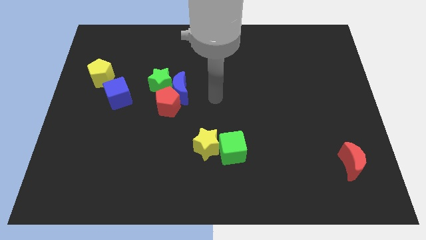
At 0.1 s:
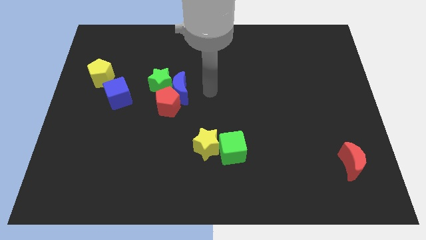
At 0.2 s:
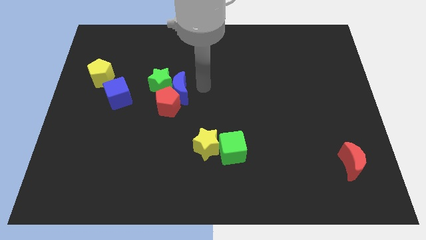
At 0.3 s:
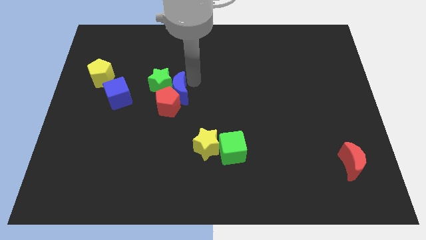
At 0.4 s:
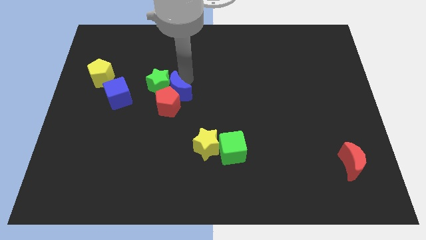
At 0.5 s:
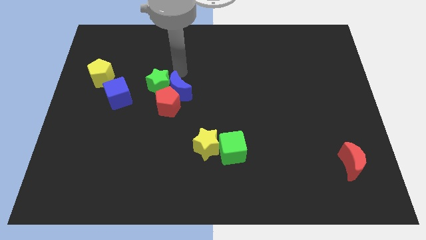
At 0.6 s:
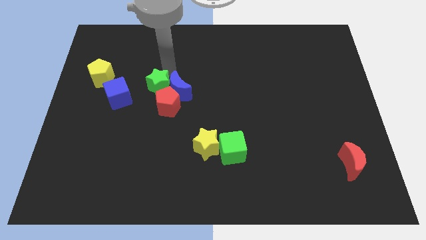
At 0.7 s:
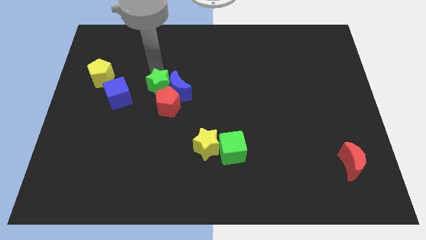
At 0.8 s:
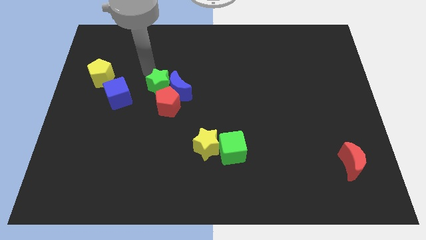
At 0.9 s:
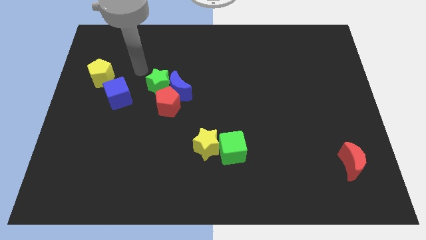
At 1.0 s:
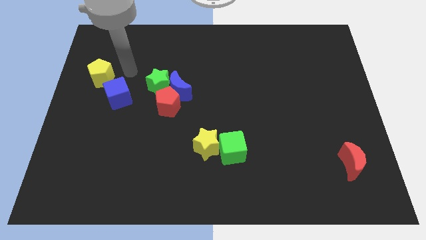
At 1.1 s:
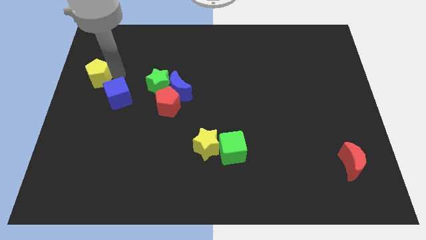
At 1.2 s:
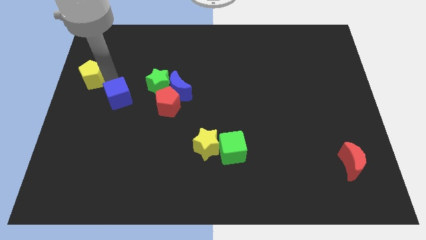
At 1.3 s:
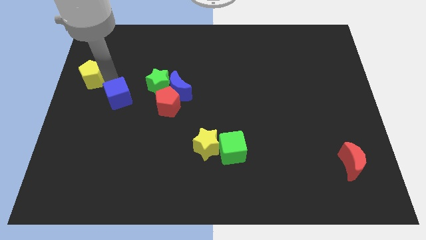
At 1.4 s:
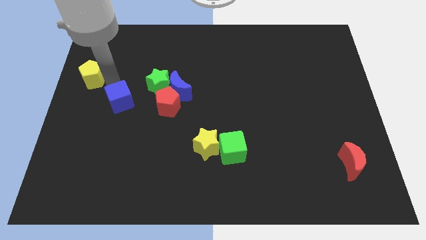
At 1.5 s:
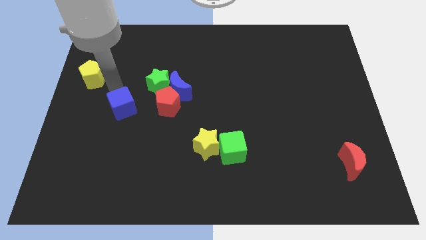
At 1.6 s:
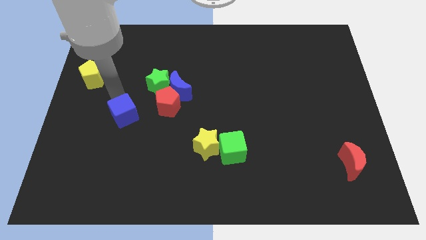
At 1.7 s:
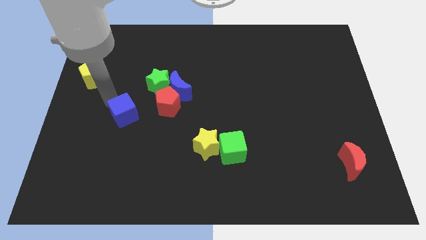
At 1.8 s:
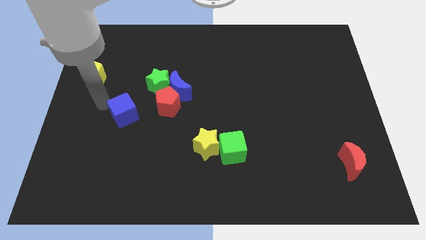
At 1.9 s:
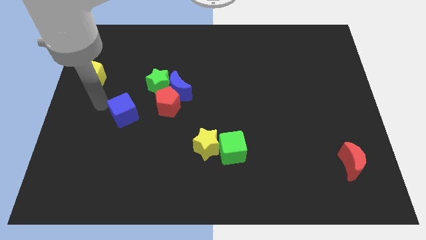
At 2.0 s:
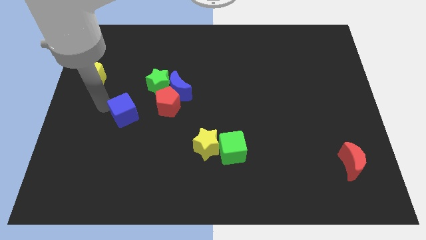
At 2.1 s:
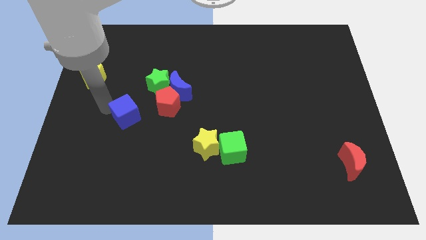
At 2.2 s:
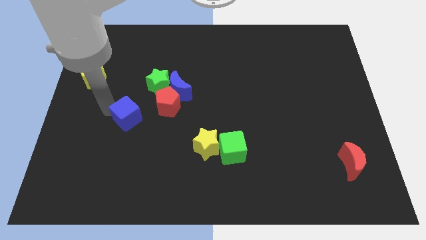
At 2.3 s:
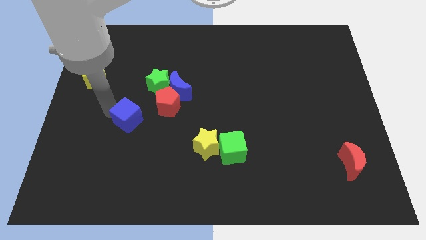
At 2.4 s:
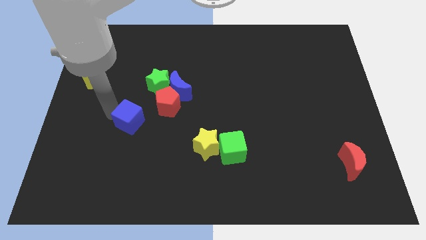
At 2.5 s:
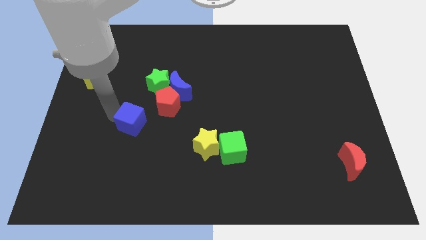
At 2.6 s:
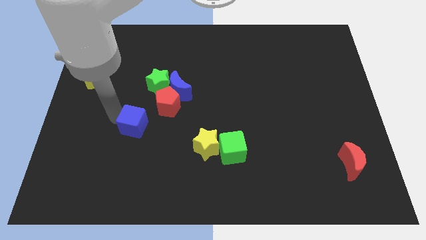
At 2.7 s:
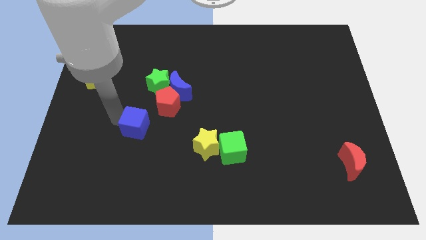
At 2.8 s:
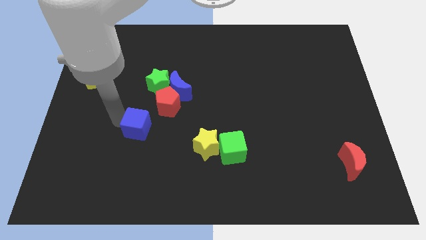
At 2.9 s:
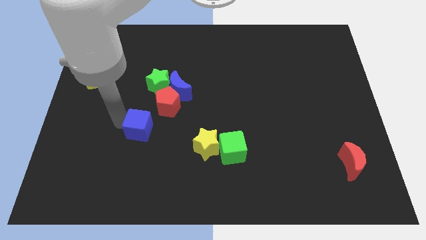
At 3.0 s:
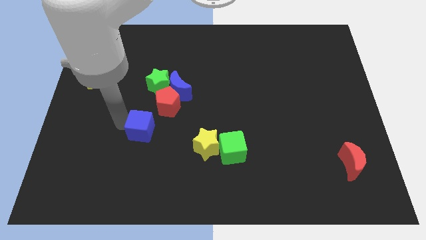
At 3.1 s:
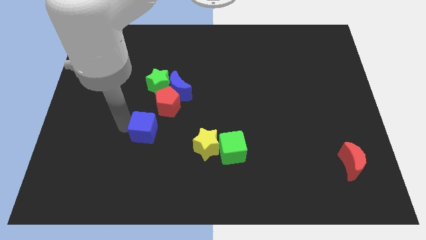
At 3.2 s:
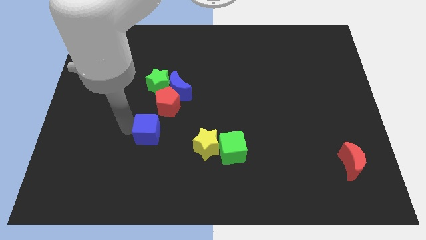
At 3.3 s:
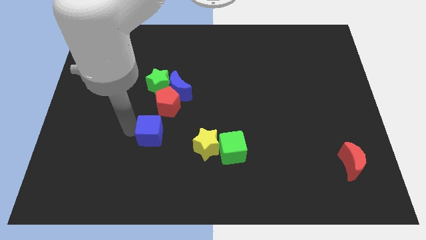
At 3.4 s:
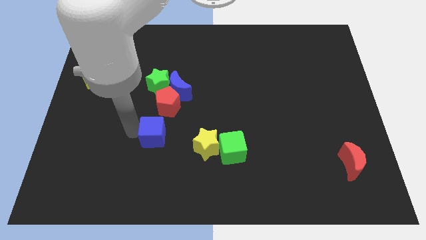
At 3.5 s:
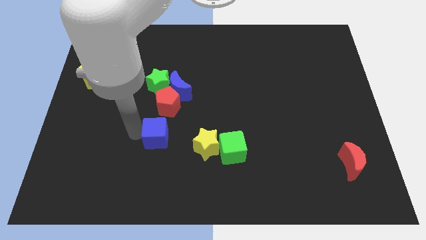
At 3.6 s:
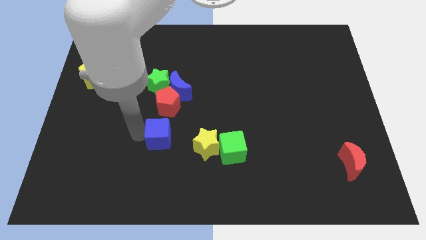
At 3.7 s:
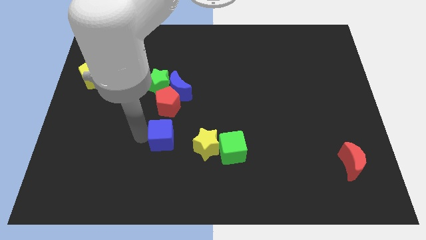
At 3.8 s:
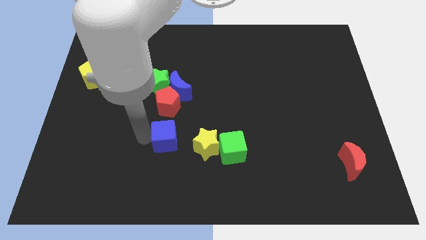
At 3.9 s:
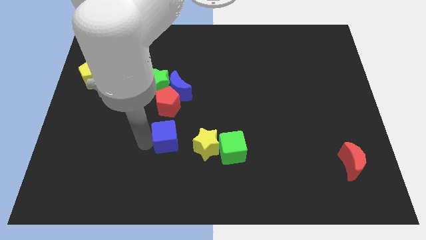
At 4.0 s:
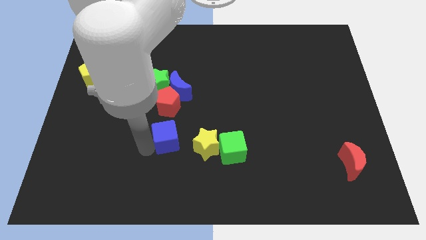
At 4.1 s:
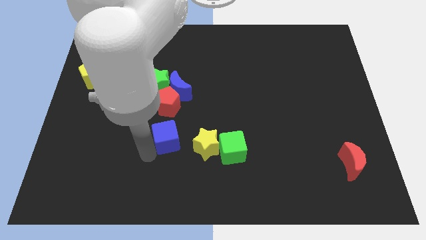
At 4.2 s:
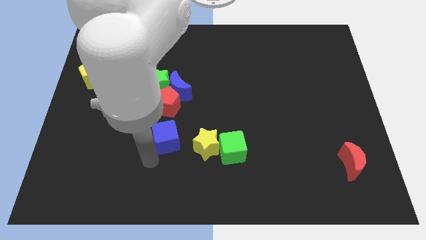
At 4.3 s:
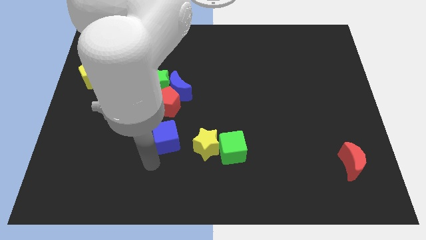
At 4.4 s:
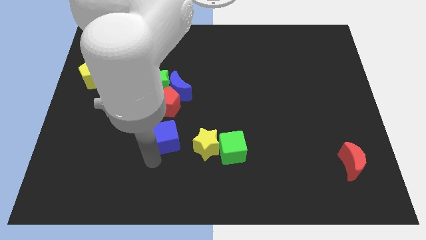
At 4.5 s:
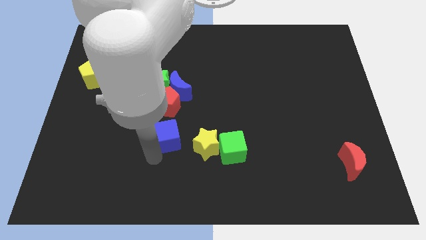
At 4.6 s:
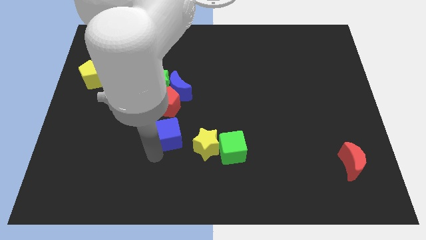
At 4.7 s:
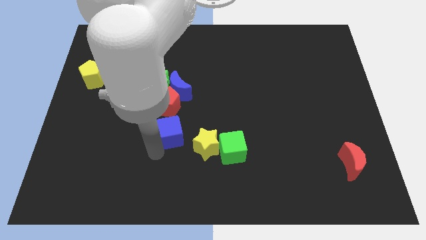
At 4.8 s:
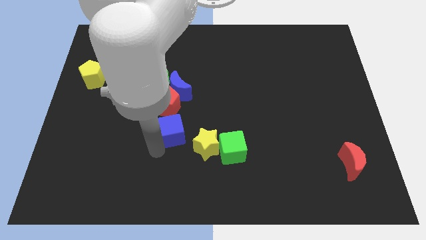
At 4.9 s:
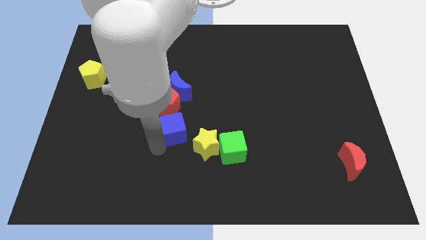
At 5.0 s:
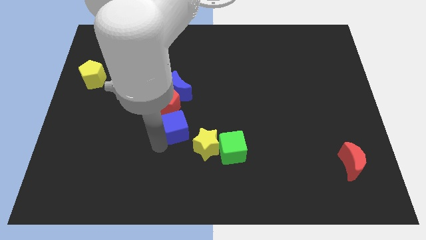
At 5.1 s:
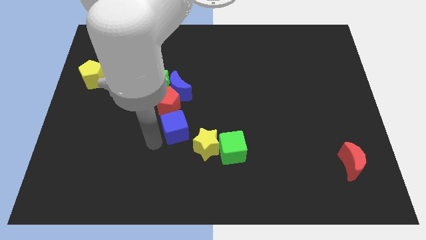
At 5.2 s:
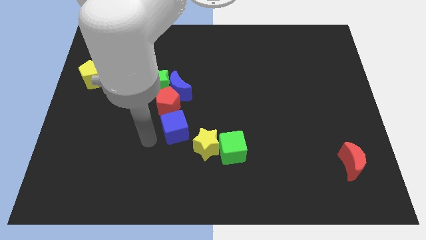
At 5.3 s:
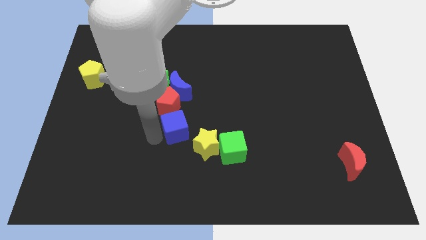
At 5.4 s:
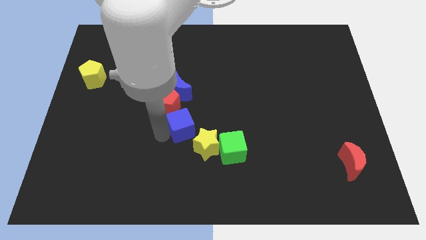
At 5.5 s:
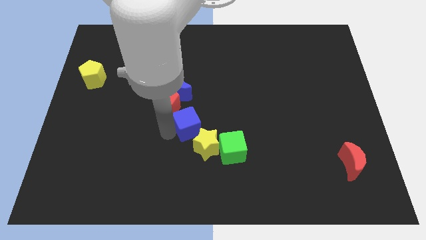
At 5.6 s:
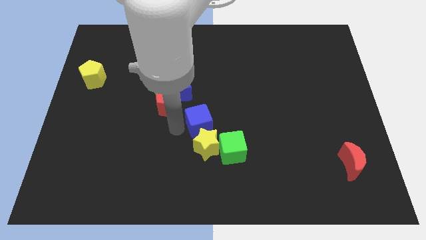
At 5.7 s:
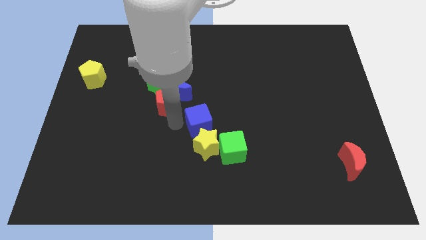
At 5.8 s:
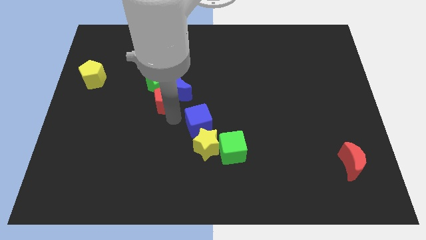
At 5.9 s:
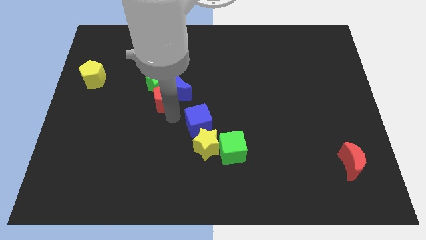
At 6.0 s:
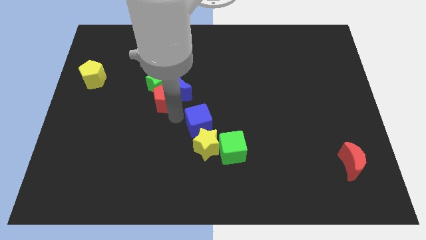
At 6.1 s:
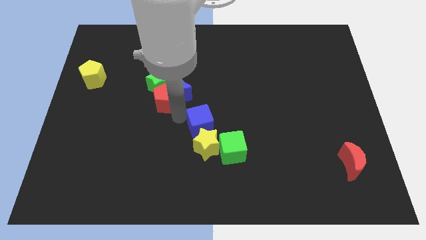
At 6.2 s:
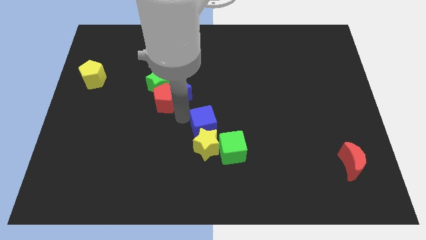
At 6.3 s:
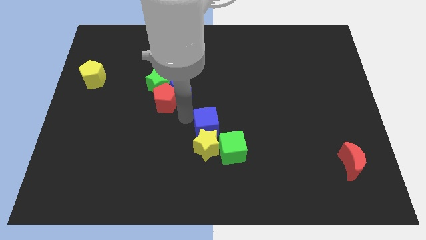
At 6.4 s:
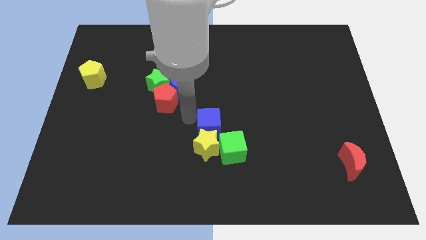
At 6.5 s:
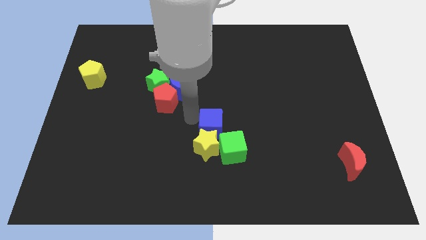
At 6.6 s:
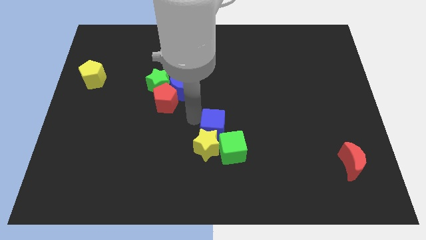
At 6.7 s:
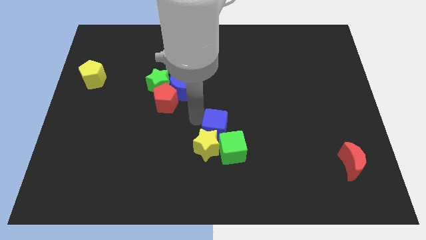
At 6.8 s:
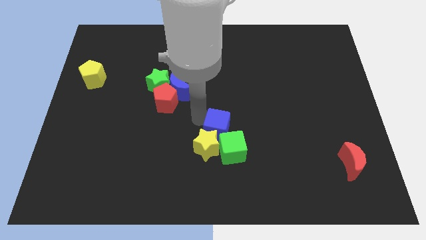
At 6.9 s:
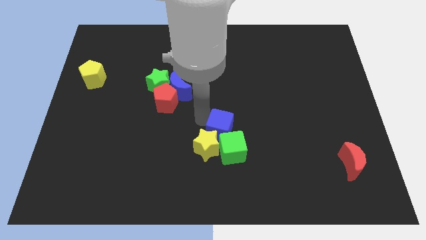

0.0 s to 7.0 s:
move the blue cube towards the green cube

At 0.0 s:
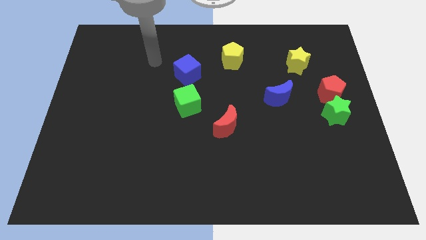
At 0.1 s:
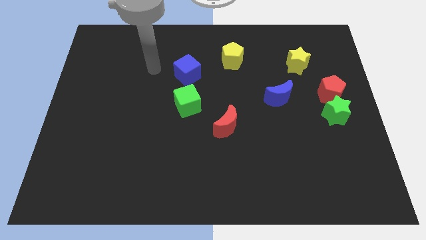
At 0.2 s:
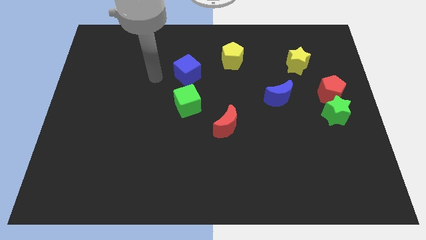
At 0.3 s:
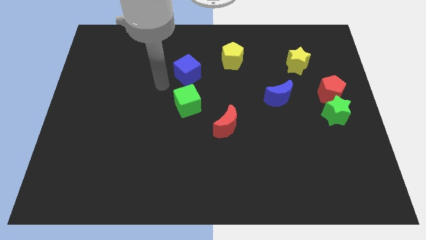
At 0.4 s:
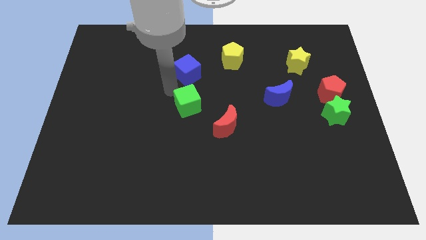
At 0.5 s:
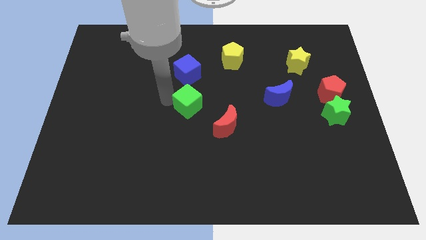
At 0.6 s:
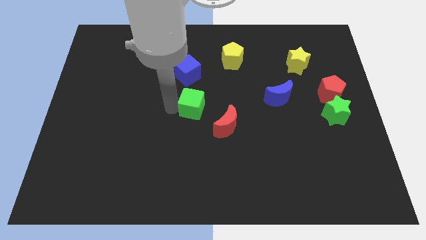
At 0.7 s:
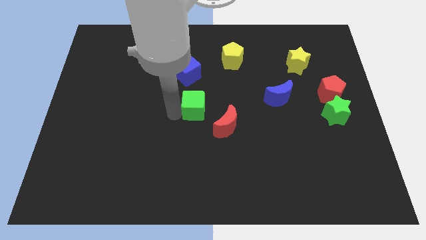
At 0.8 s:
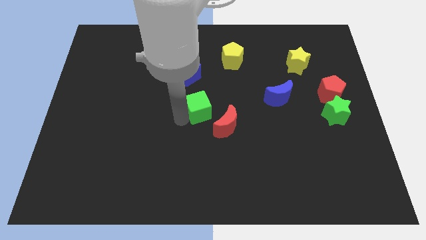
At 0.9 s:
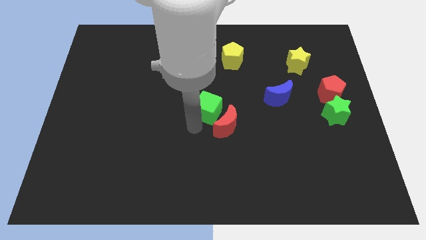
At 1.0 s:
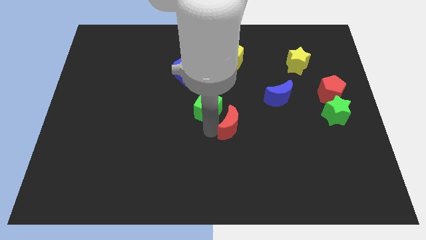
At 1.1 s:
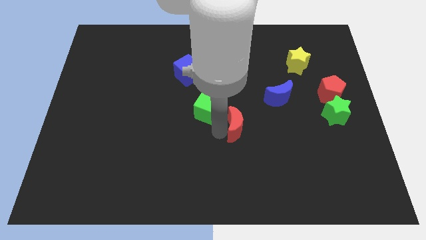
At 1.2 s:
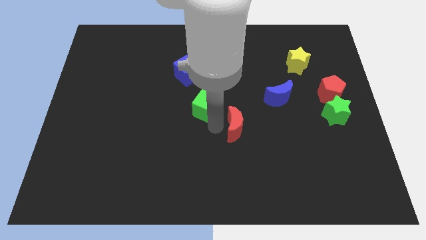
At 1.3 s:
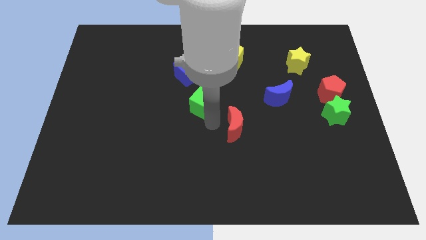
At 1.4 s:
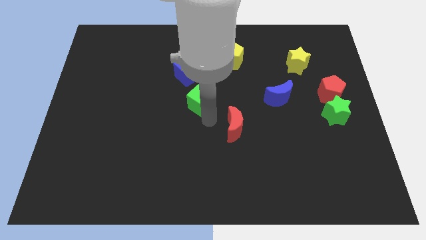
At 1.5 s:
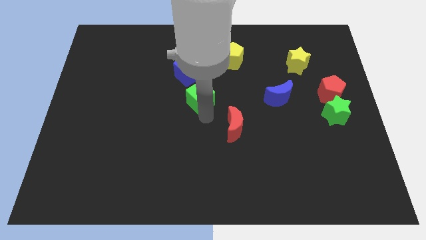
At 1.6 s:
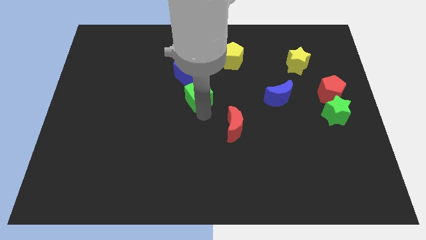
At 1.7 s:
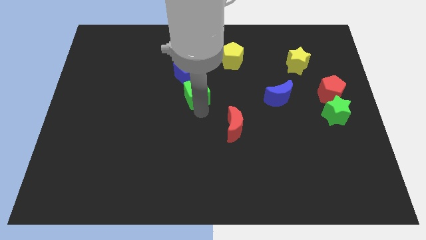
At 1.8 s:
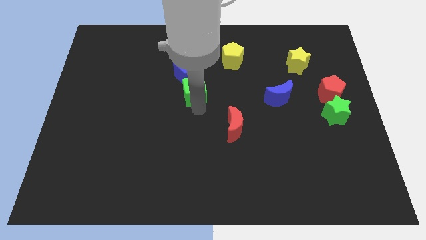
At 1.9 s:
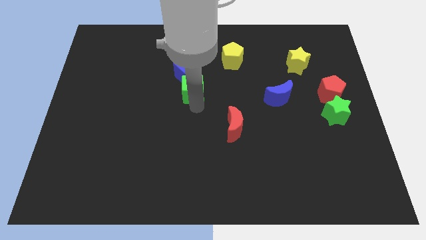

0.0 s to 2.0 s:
push the green cube to the blue cube
